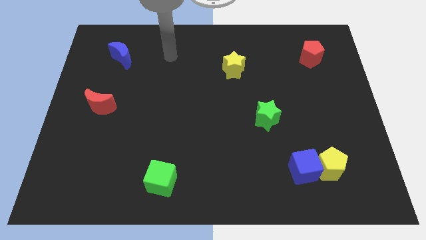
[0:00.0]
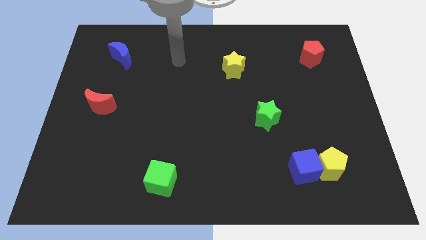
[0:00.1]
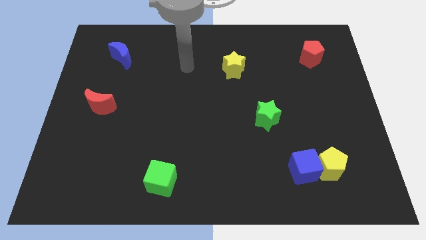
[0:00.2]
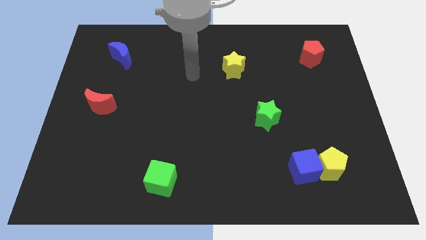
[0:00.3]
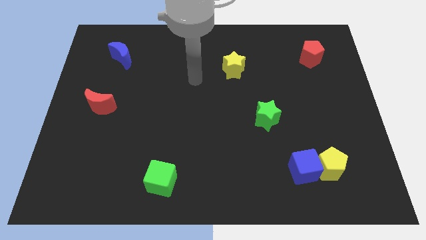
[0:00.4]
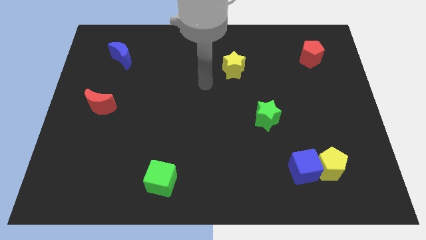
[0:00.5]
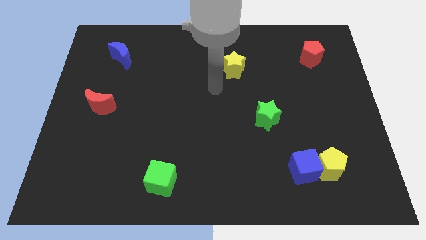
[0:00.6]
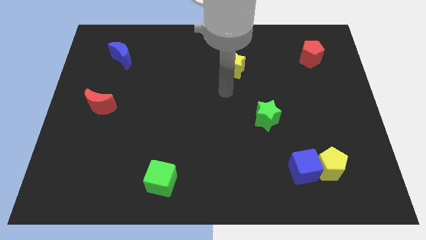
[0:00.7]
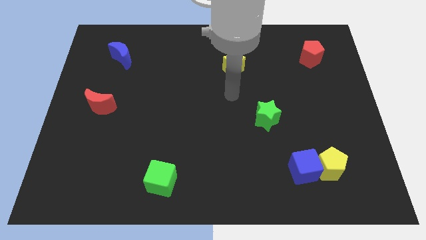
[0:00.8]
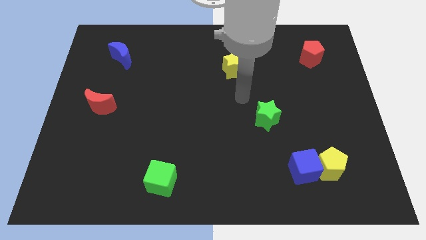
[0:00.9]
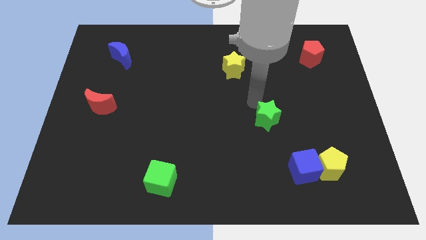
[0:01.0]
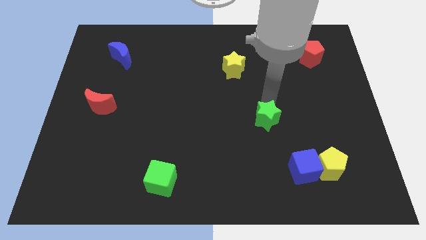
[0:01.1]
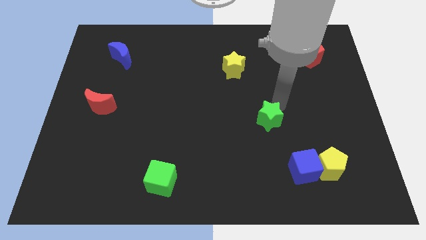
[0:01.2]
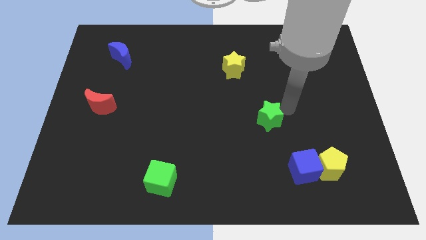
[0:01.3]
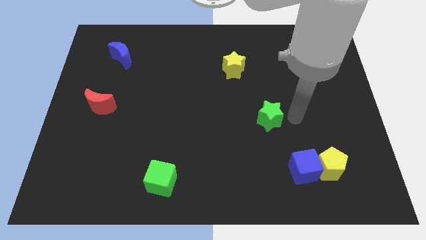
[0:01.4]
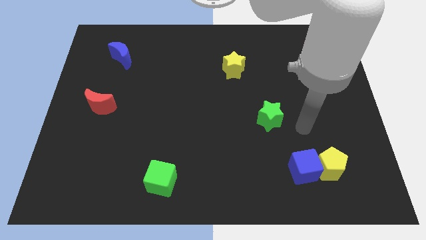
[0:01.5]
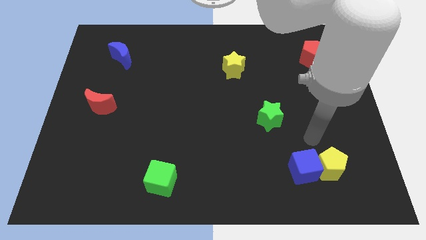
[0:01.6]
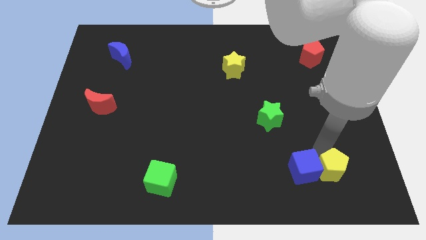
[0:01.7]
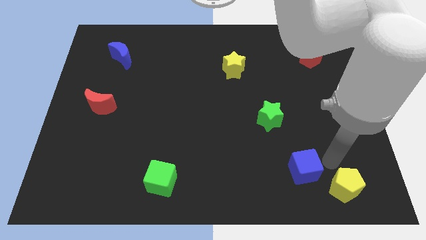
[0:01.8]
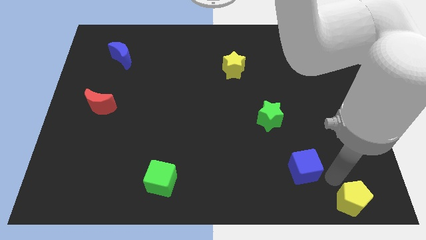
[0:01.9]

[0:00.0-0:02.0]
pull the blue cube apart from the yellow pentagon

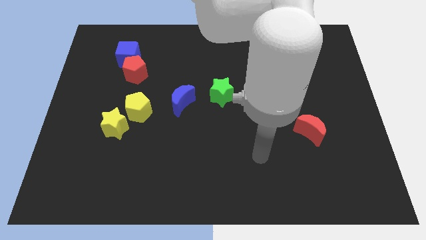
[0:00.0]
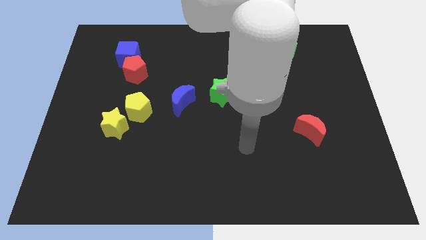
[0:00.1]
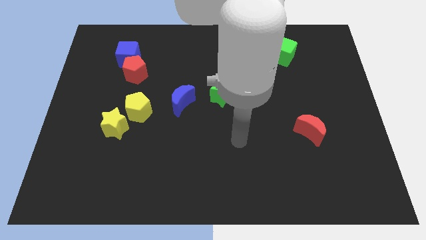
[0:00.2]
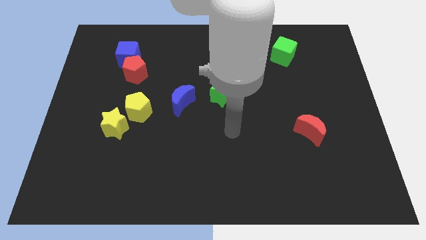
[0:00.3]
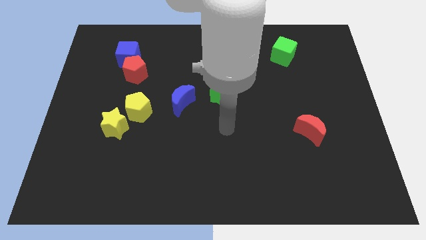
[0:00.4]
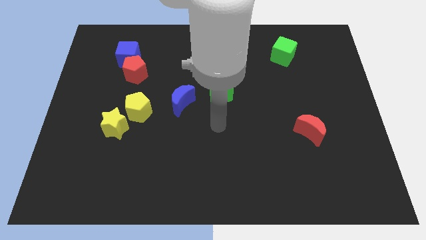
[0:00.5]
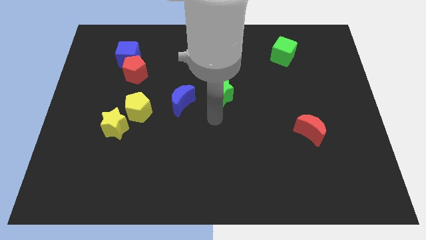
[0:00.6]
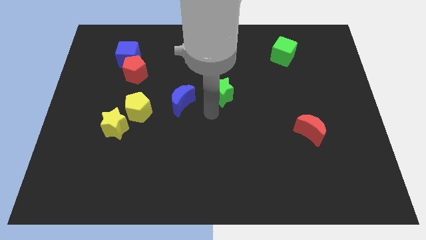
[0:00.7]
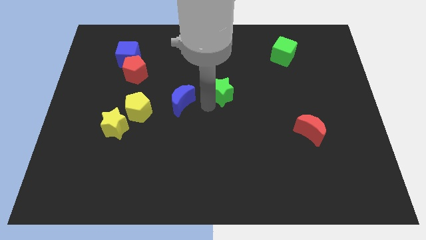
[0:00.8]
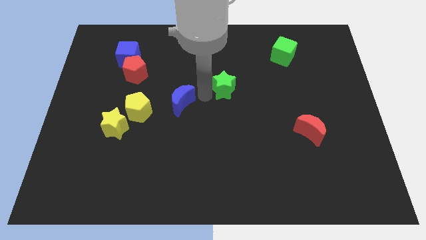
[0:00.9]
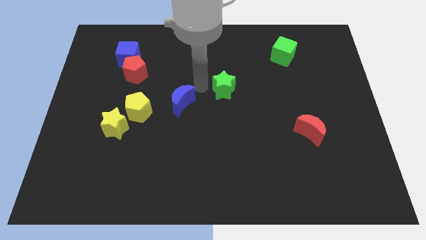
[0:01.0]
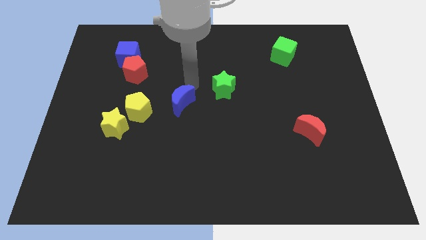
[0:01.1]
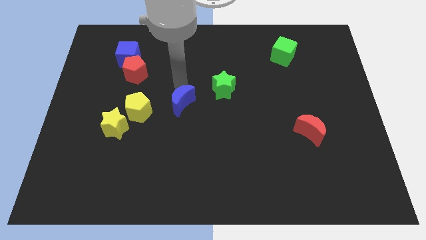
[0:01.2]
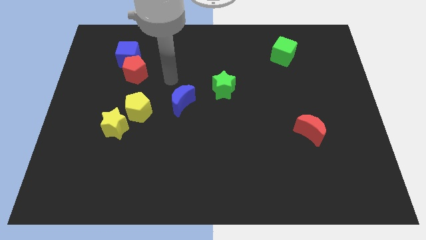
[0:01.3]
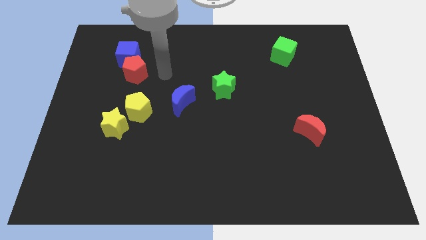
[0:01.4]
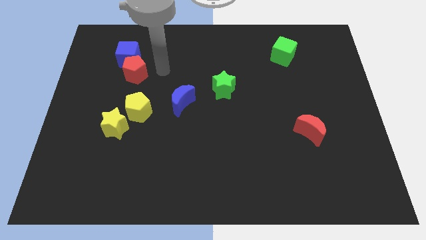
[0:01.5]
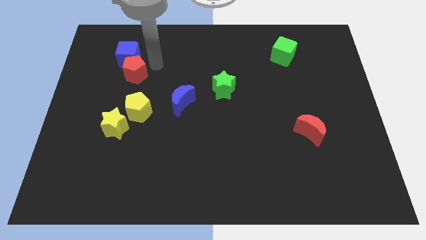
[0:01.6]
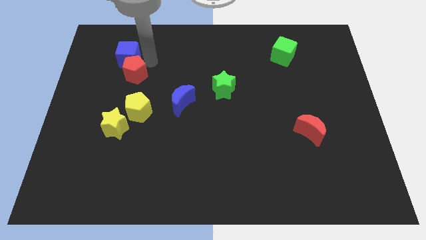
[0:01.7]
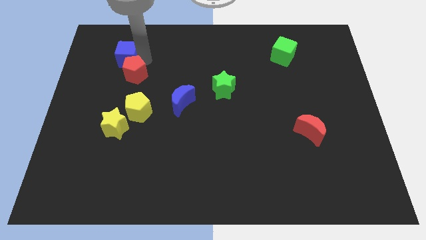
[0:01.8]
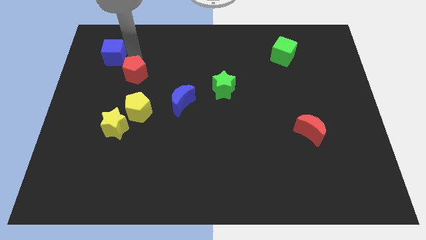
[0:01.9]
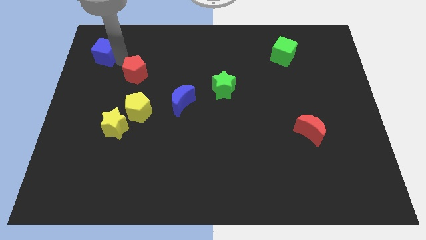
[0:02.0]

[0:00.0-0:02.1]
move the red pentagon away from the blue cube

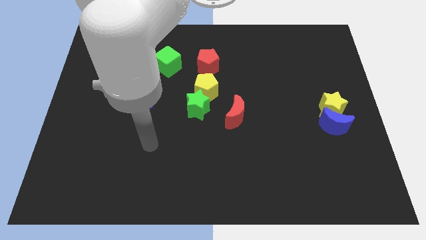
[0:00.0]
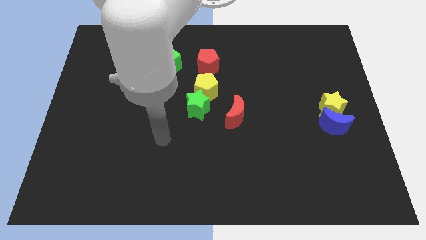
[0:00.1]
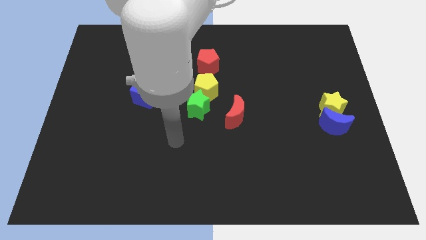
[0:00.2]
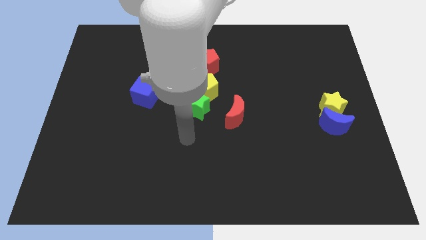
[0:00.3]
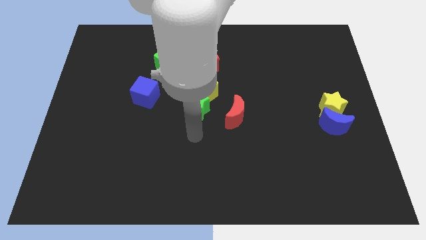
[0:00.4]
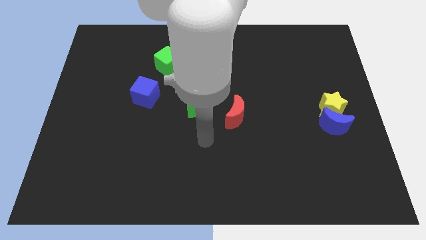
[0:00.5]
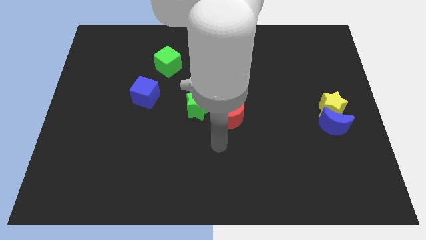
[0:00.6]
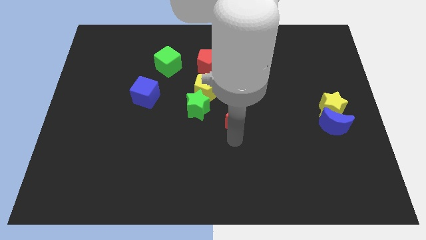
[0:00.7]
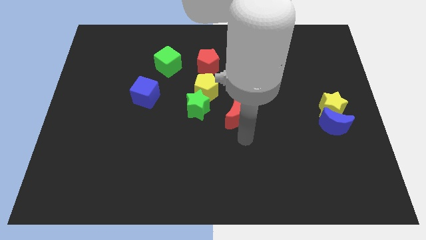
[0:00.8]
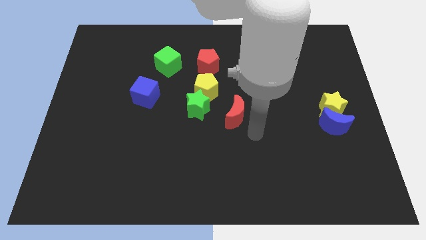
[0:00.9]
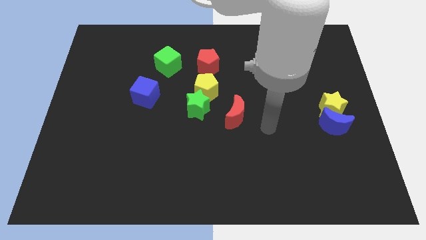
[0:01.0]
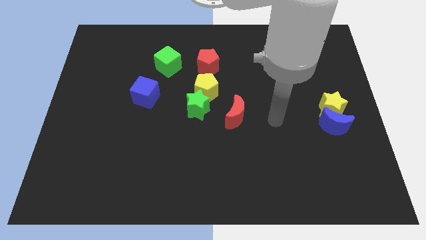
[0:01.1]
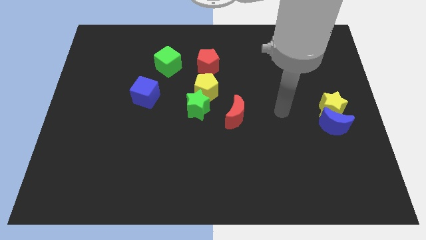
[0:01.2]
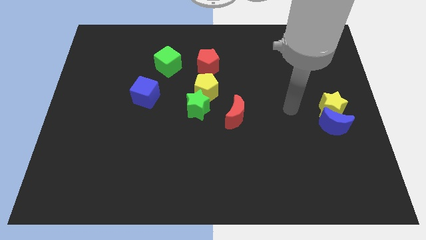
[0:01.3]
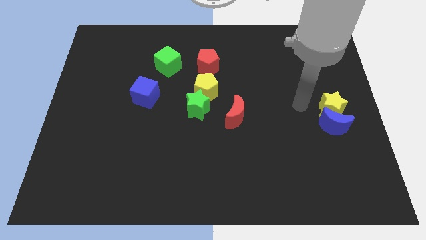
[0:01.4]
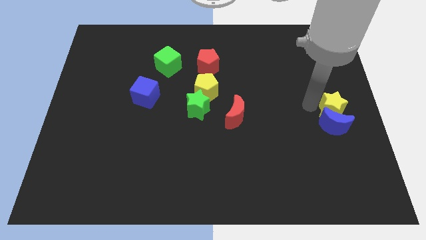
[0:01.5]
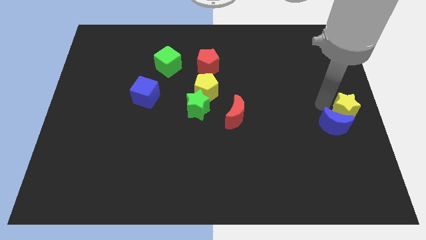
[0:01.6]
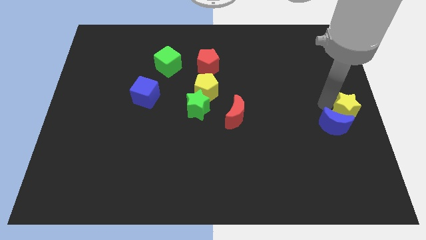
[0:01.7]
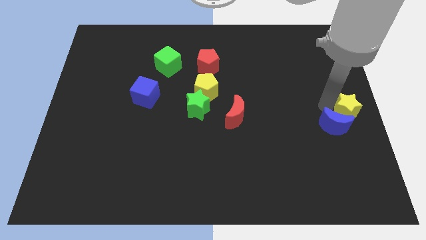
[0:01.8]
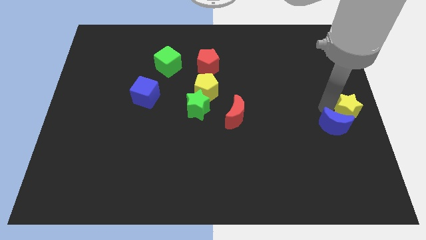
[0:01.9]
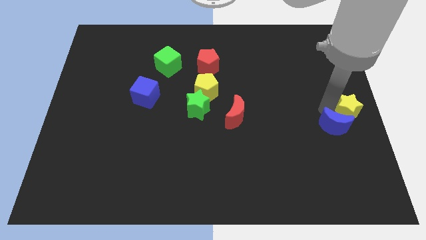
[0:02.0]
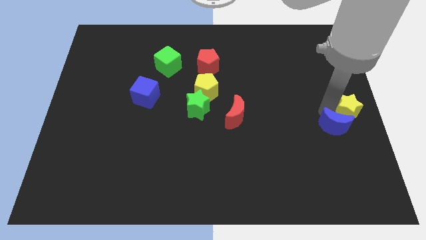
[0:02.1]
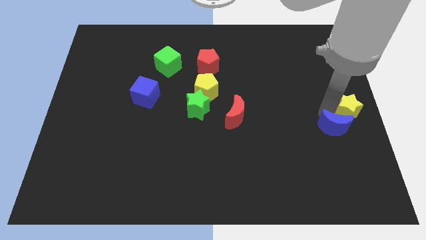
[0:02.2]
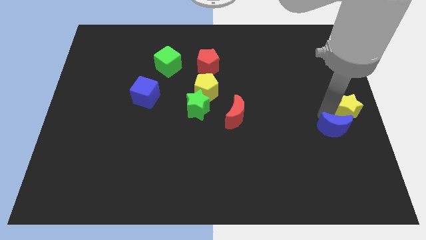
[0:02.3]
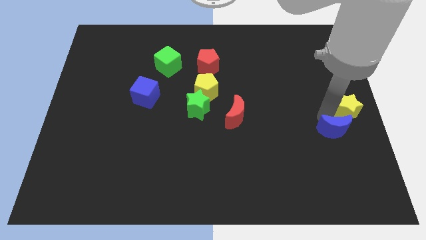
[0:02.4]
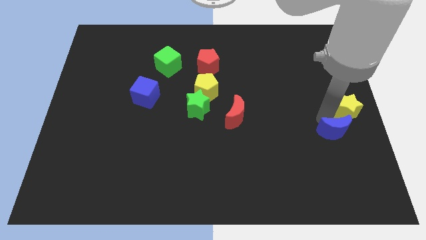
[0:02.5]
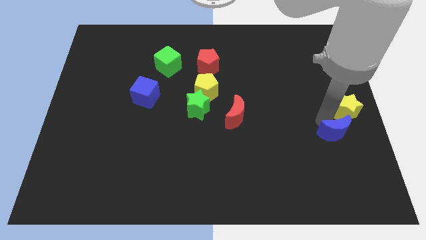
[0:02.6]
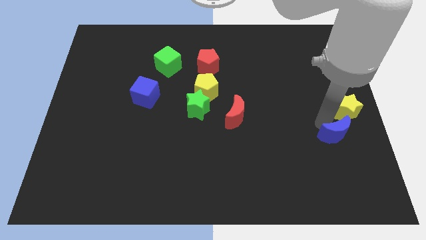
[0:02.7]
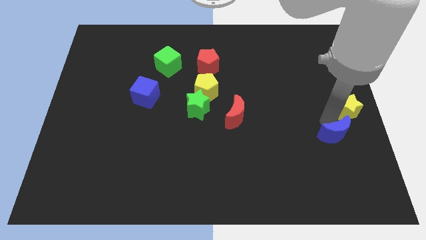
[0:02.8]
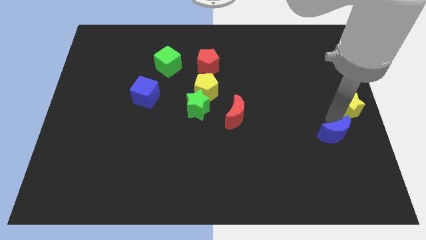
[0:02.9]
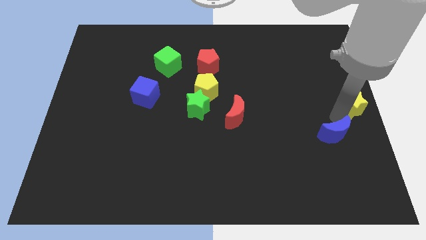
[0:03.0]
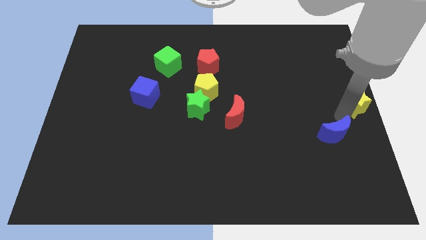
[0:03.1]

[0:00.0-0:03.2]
move the blue moon away from the yellow star

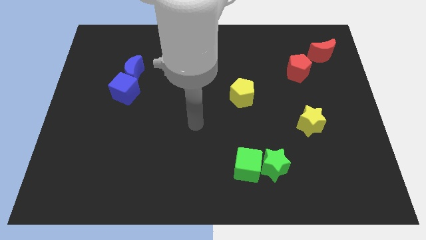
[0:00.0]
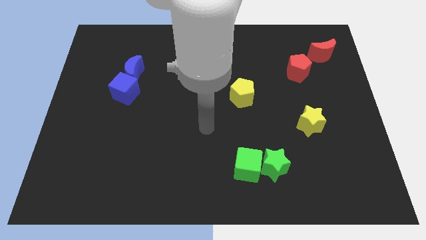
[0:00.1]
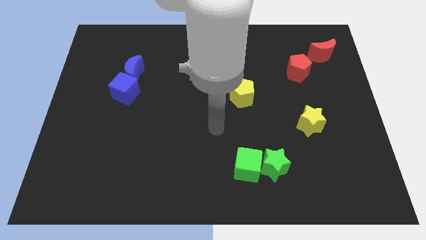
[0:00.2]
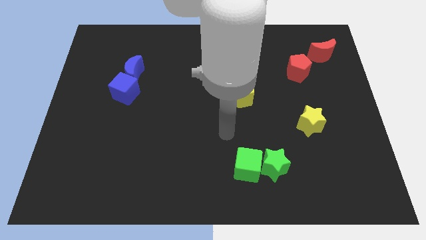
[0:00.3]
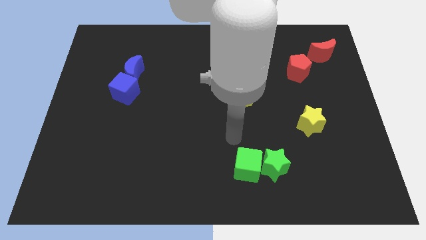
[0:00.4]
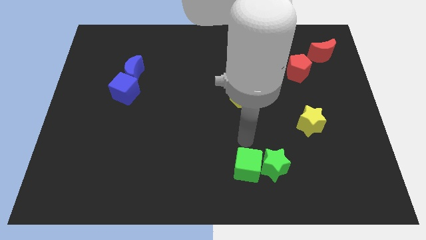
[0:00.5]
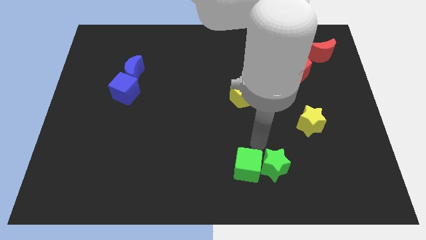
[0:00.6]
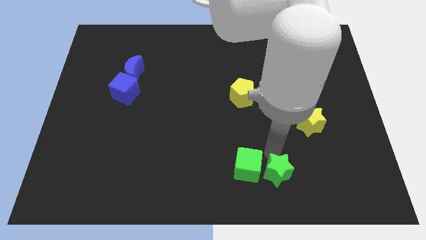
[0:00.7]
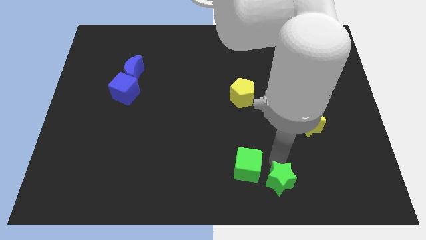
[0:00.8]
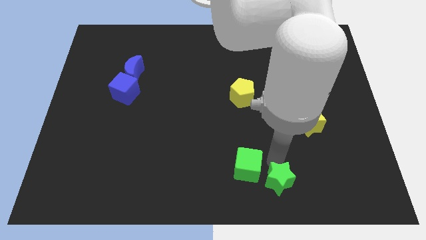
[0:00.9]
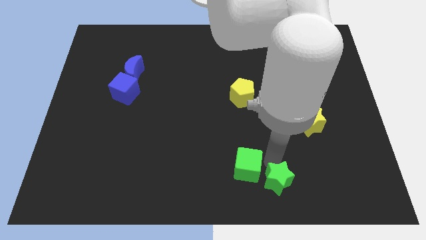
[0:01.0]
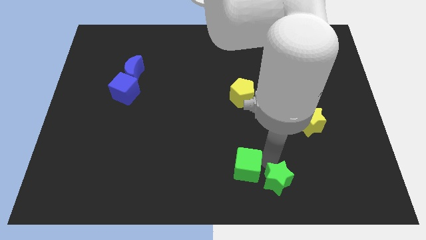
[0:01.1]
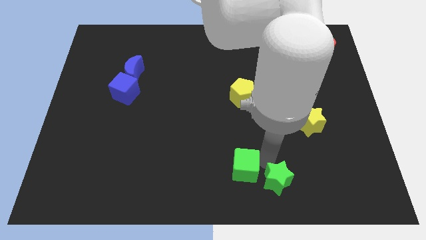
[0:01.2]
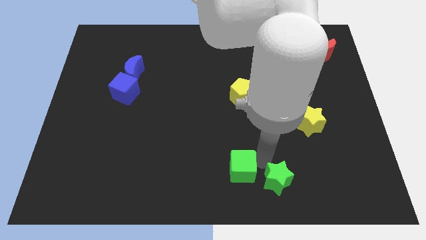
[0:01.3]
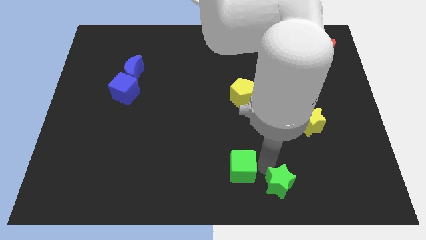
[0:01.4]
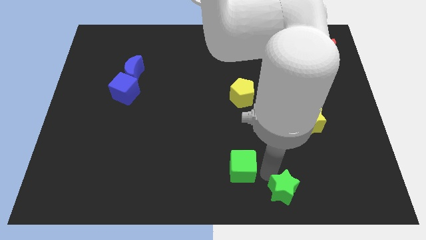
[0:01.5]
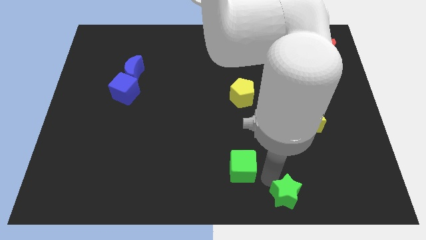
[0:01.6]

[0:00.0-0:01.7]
separate the green cube from the green star

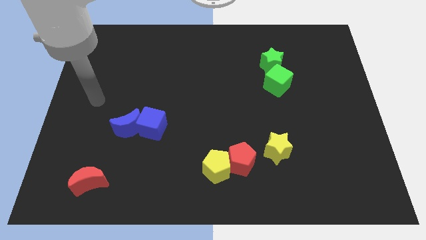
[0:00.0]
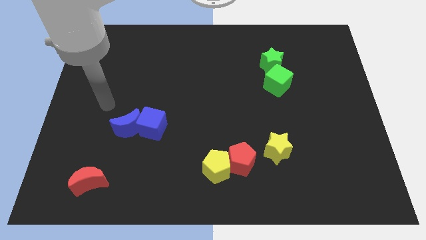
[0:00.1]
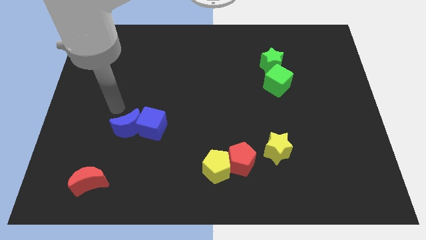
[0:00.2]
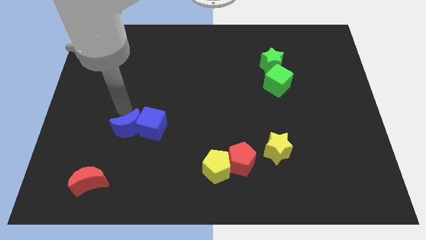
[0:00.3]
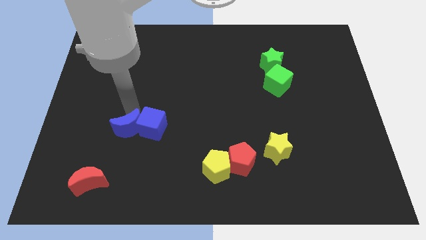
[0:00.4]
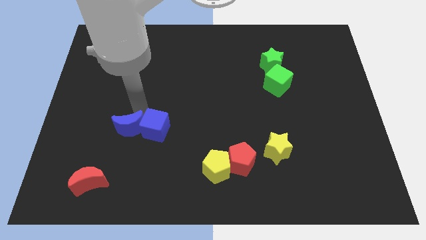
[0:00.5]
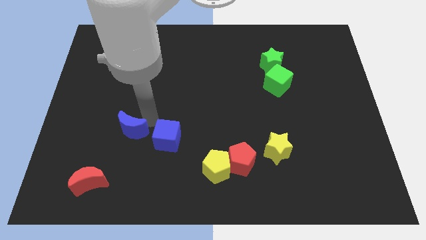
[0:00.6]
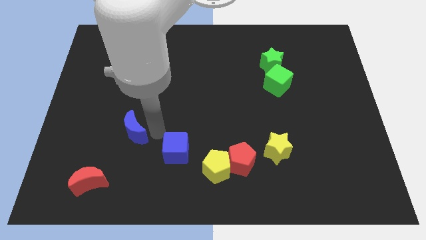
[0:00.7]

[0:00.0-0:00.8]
pull the blue moon apart from the blue cube
